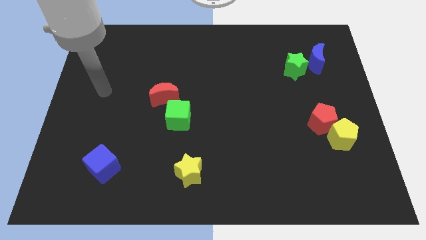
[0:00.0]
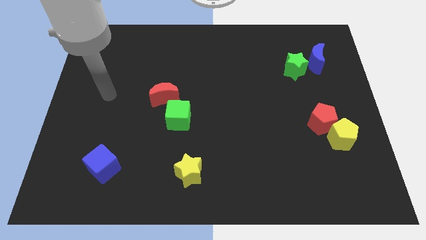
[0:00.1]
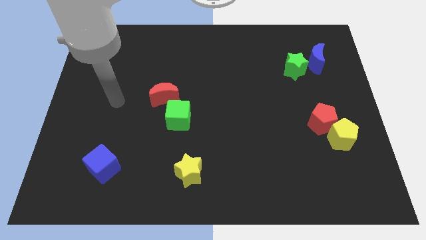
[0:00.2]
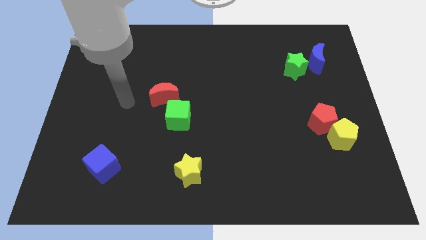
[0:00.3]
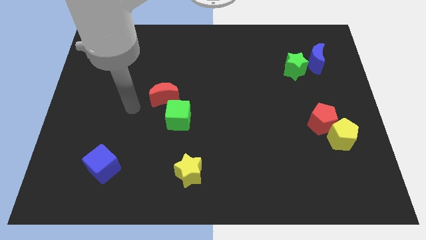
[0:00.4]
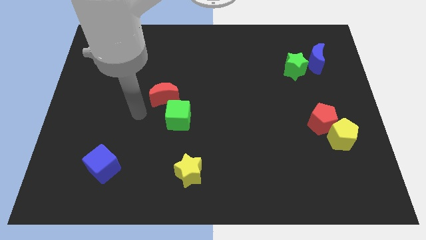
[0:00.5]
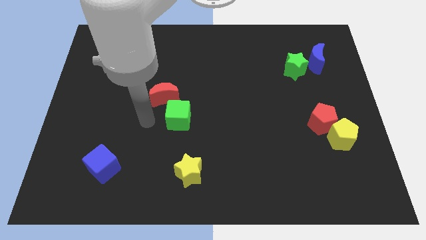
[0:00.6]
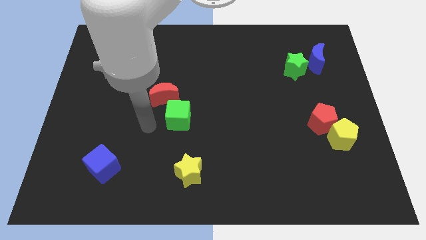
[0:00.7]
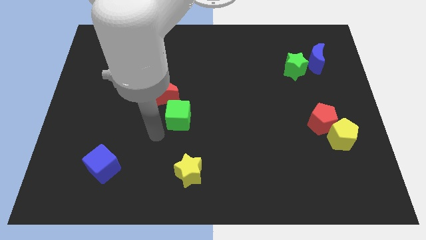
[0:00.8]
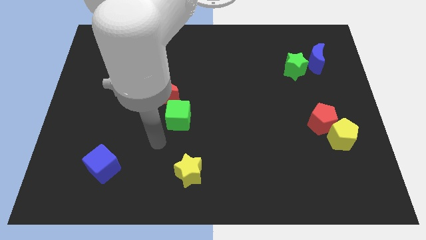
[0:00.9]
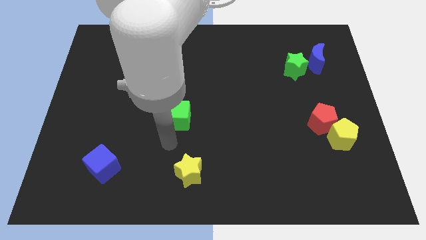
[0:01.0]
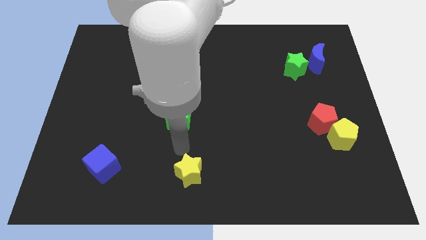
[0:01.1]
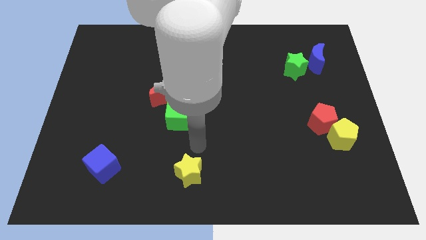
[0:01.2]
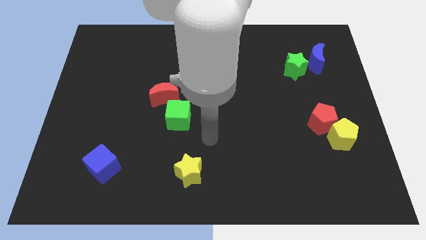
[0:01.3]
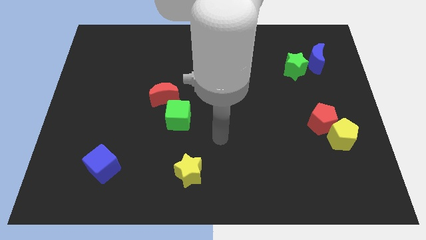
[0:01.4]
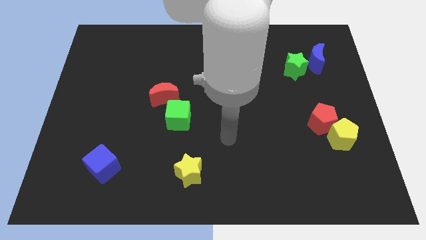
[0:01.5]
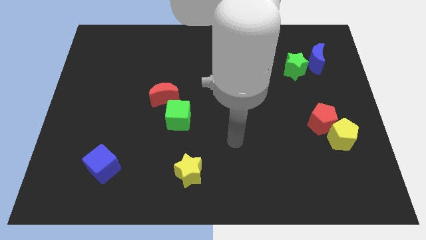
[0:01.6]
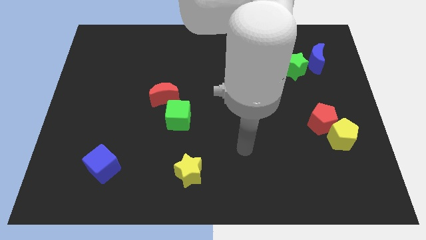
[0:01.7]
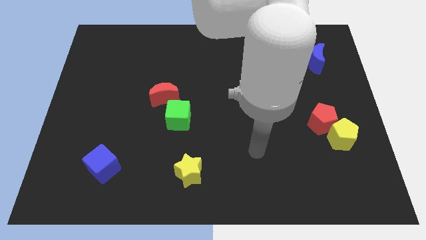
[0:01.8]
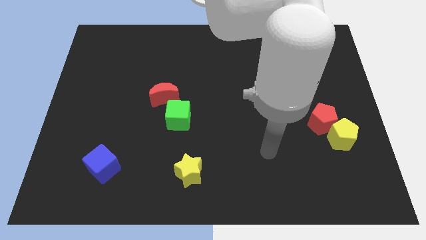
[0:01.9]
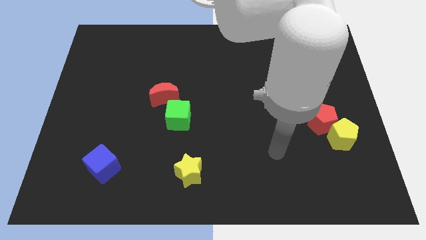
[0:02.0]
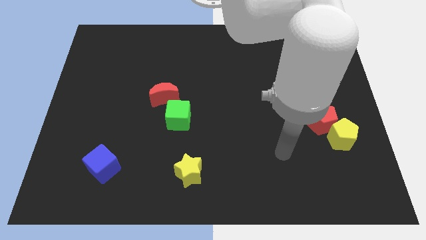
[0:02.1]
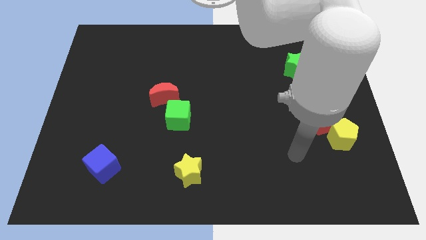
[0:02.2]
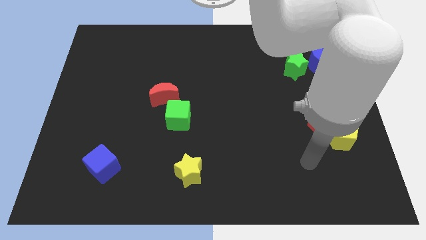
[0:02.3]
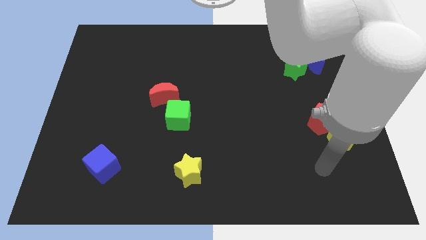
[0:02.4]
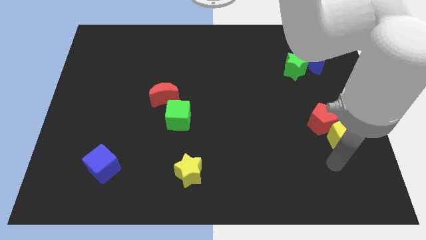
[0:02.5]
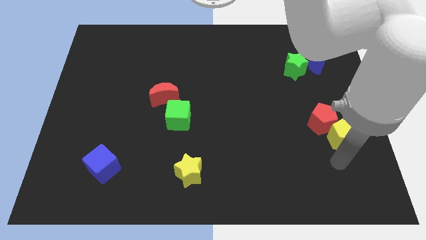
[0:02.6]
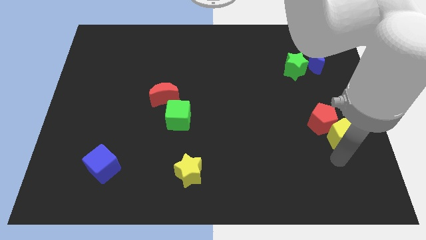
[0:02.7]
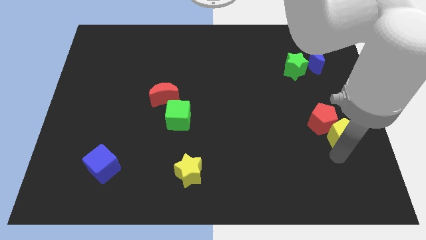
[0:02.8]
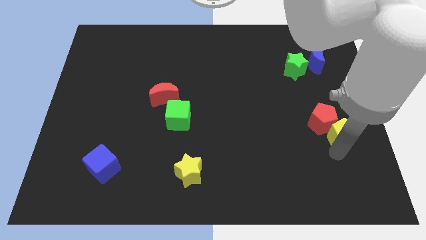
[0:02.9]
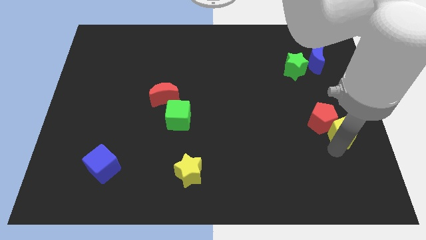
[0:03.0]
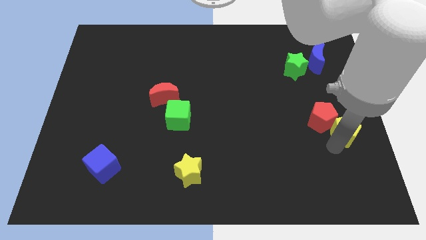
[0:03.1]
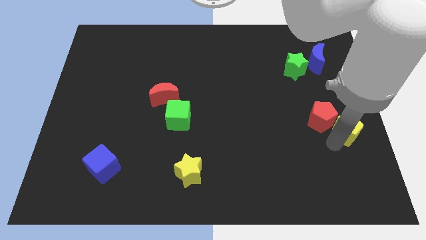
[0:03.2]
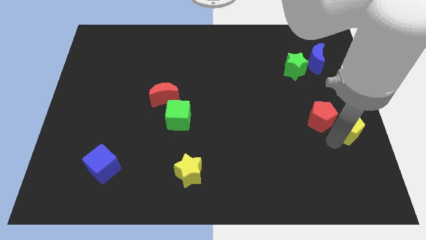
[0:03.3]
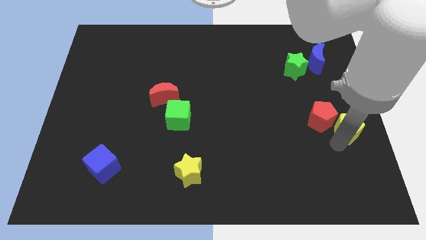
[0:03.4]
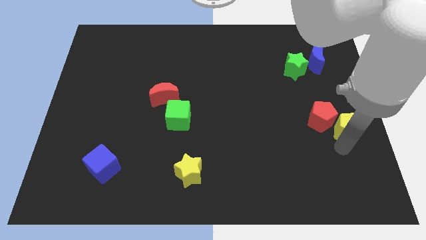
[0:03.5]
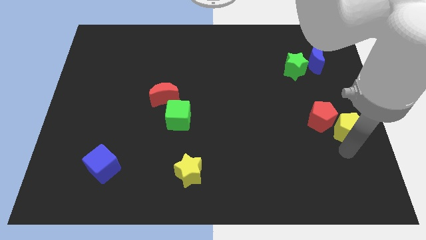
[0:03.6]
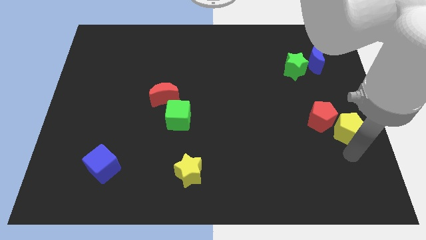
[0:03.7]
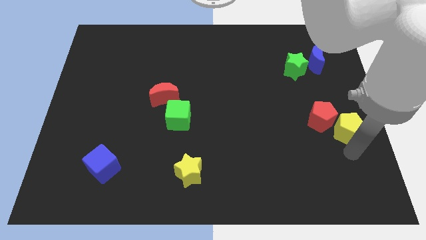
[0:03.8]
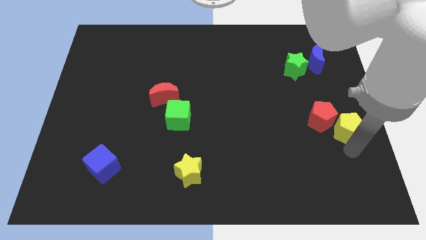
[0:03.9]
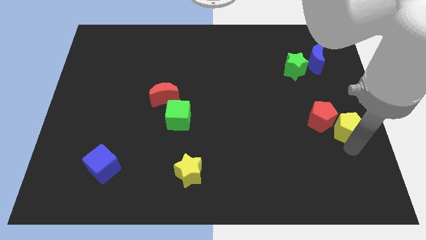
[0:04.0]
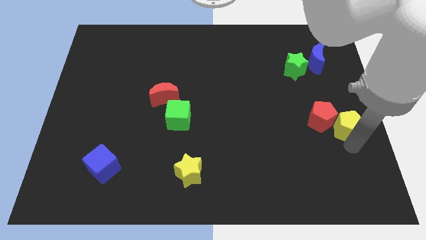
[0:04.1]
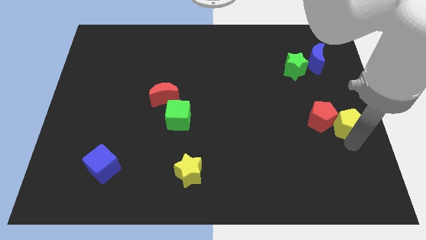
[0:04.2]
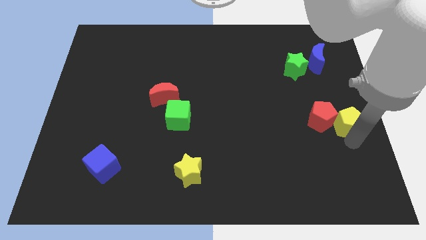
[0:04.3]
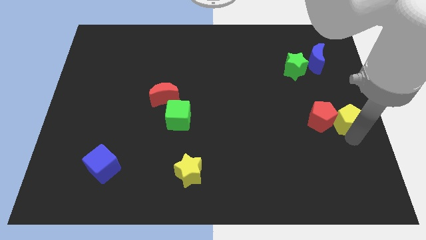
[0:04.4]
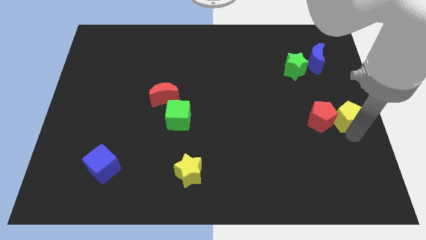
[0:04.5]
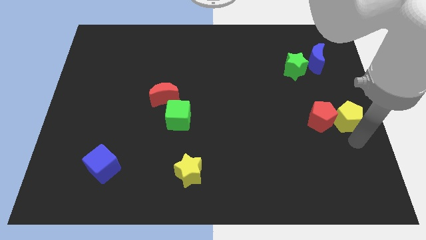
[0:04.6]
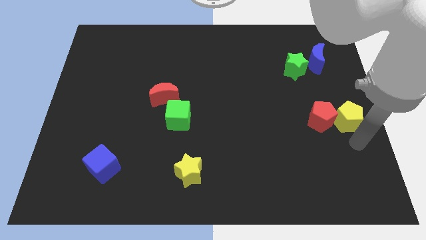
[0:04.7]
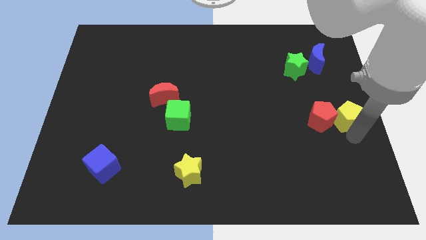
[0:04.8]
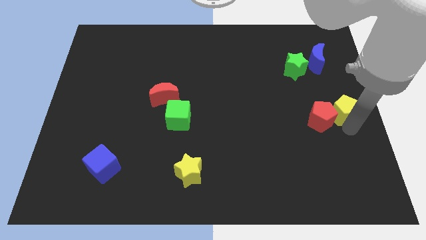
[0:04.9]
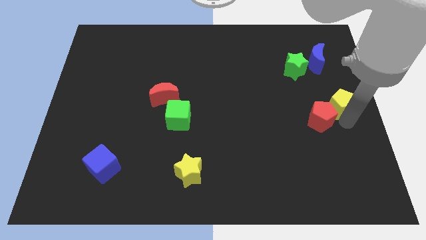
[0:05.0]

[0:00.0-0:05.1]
slide the yellow pentagon upwards slightly

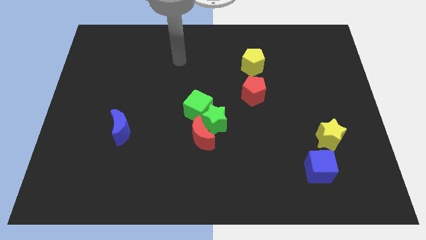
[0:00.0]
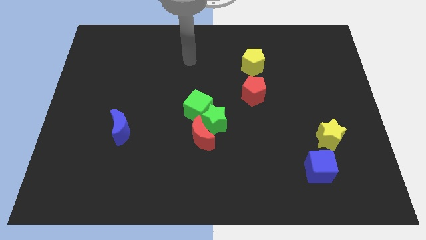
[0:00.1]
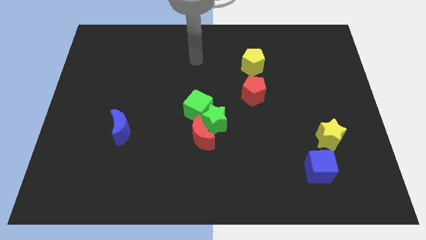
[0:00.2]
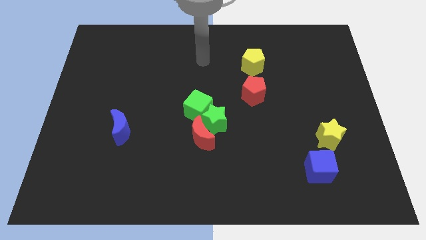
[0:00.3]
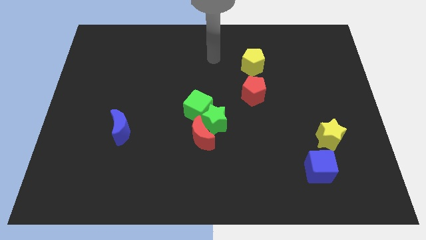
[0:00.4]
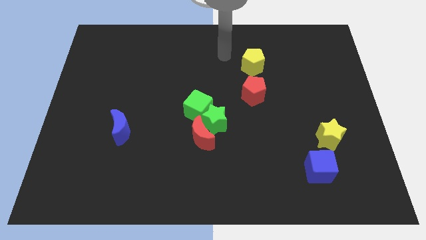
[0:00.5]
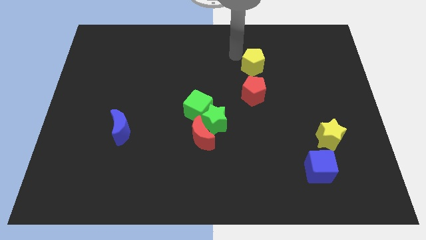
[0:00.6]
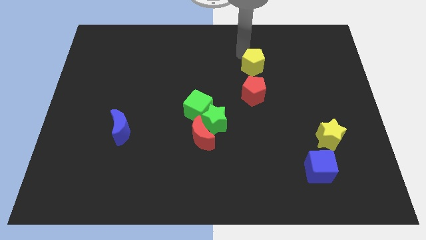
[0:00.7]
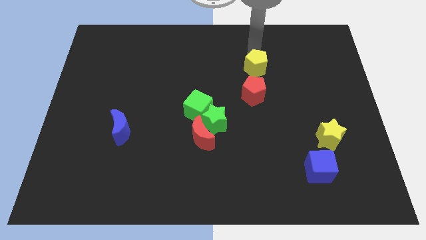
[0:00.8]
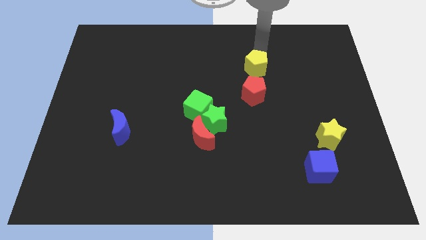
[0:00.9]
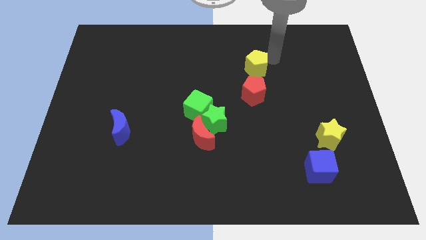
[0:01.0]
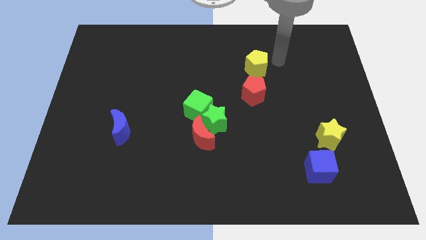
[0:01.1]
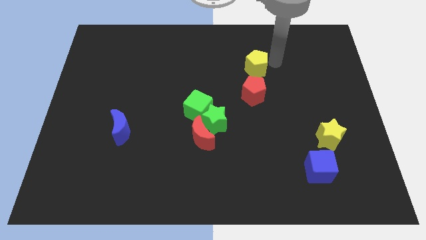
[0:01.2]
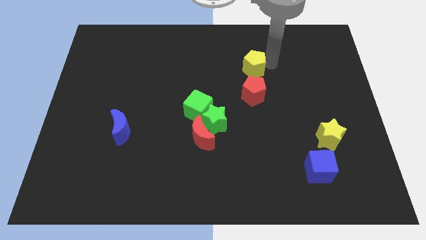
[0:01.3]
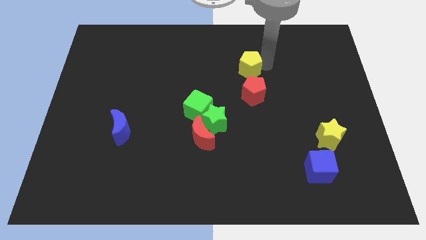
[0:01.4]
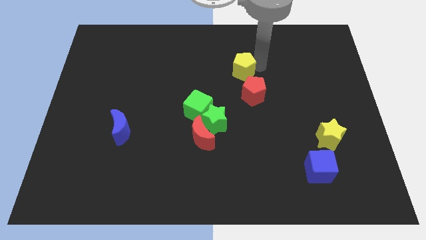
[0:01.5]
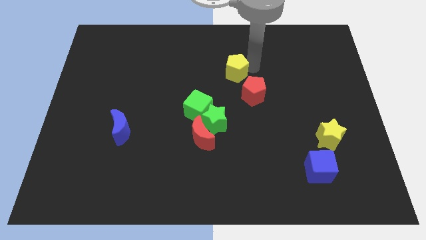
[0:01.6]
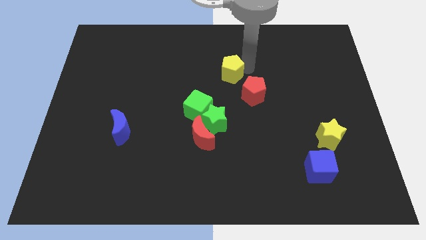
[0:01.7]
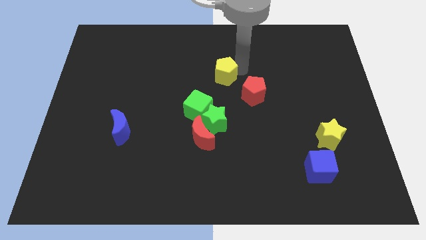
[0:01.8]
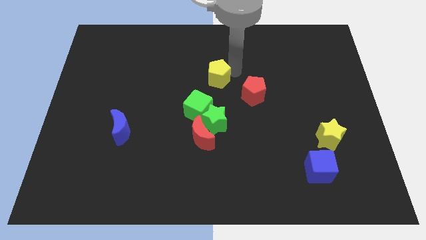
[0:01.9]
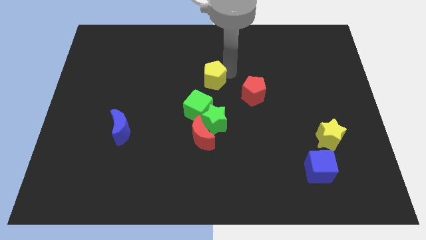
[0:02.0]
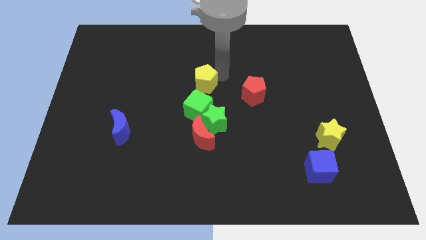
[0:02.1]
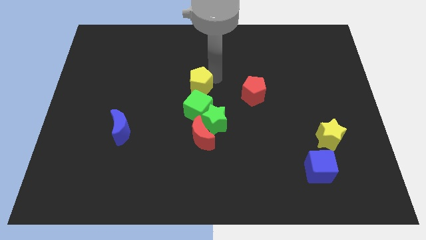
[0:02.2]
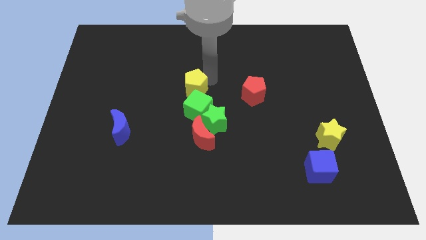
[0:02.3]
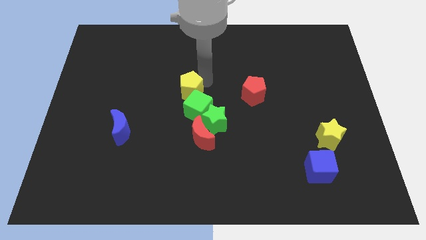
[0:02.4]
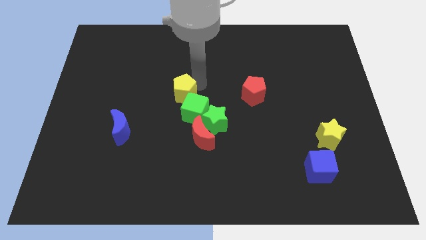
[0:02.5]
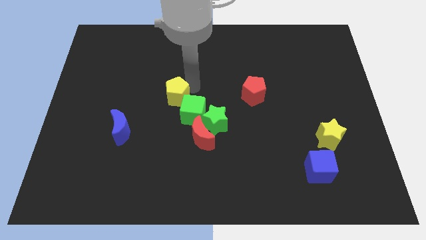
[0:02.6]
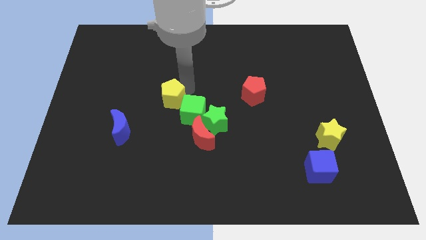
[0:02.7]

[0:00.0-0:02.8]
slide the yellow pentagon diagonally downwards and to the left

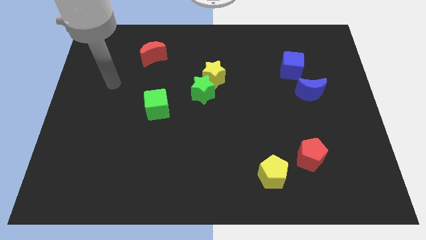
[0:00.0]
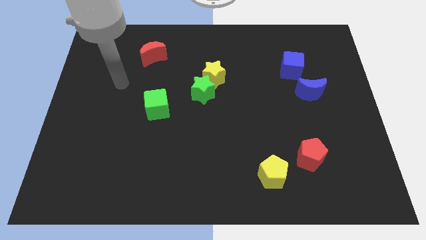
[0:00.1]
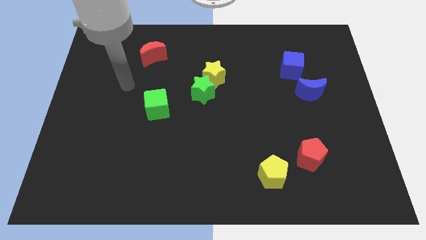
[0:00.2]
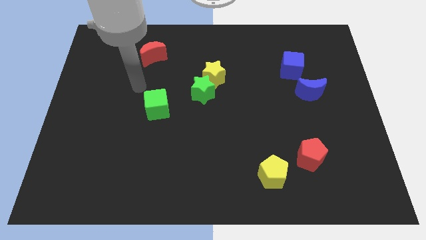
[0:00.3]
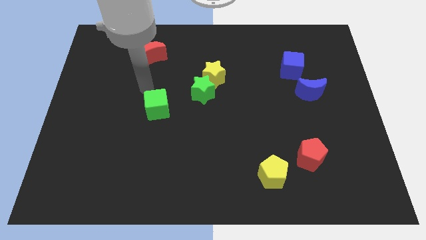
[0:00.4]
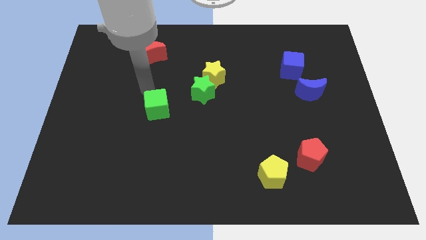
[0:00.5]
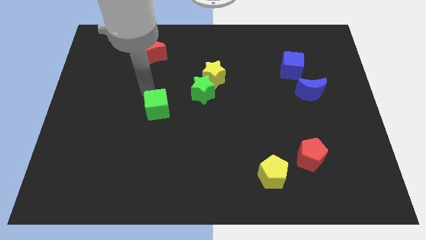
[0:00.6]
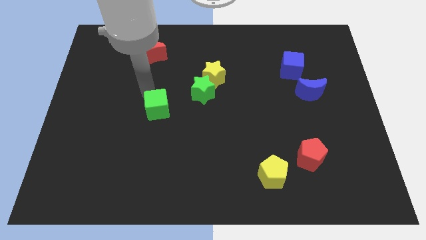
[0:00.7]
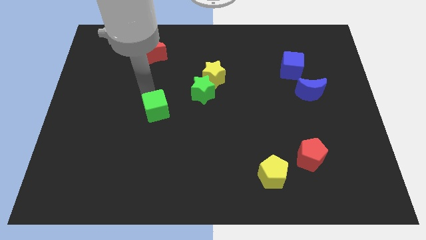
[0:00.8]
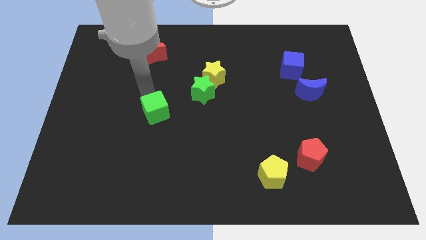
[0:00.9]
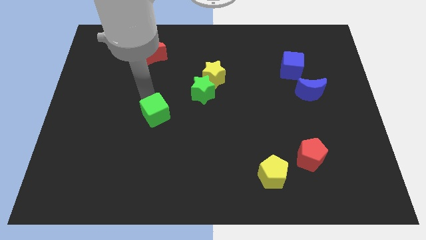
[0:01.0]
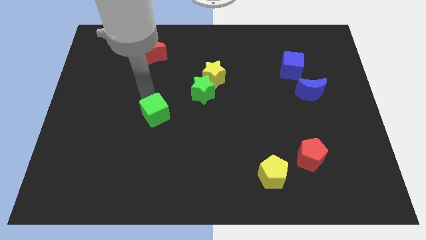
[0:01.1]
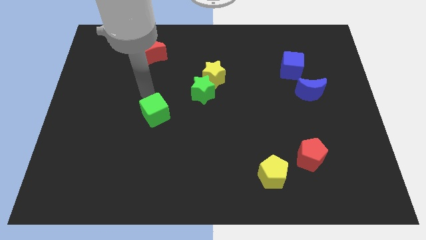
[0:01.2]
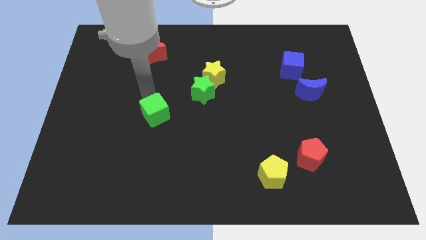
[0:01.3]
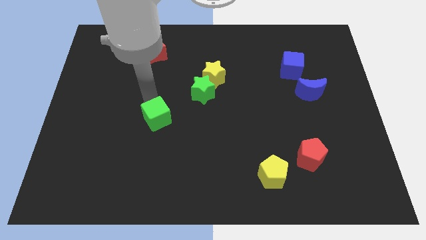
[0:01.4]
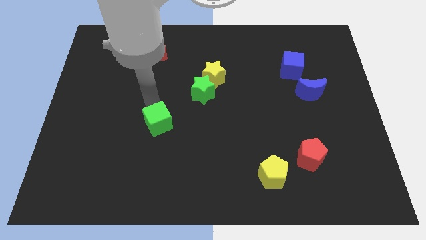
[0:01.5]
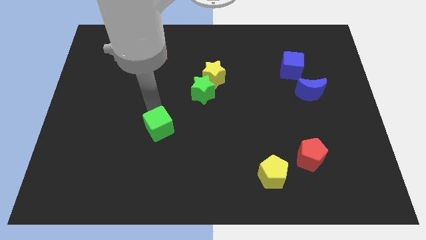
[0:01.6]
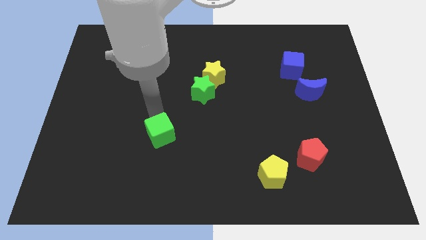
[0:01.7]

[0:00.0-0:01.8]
slightly move the green cube downwards
